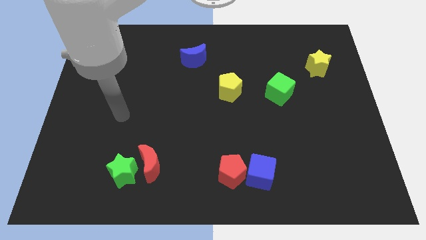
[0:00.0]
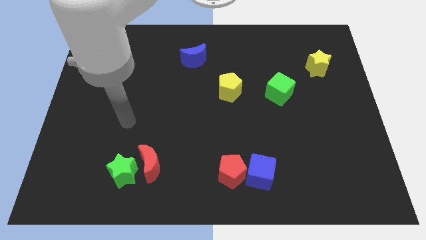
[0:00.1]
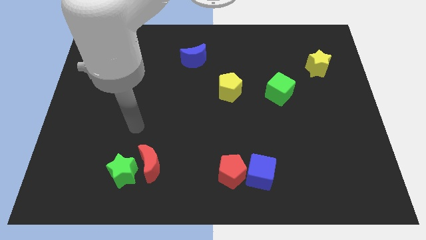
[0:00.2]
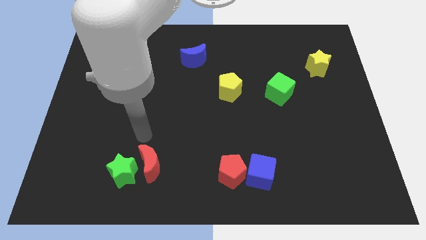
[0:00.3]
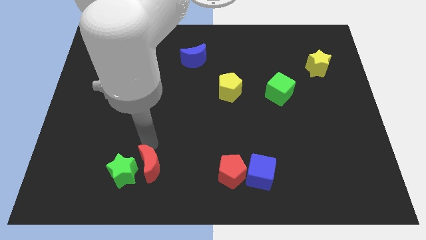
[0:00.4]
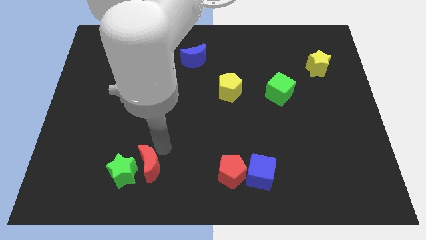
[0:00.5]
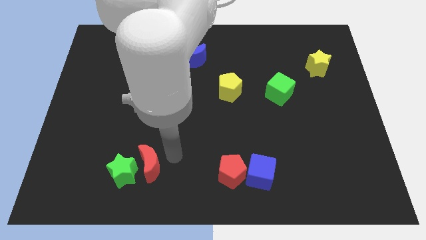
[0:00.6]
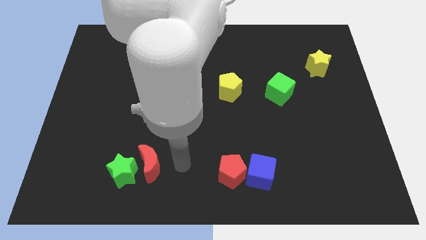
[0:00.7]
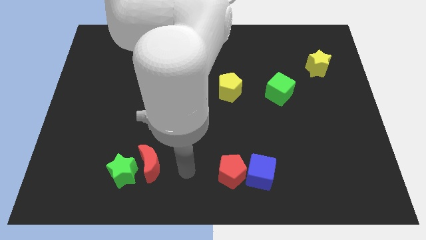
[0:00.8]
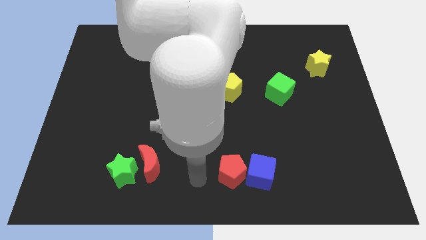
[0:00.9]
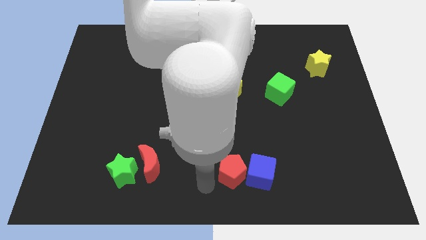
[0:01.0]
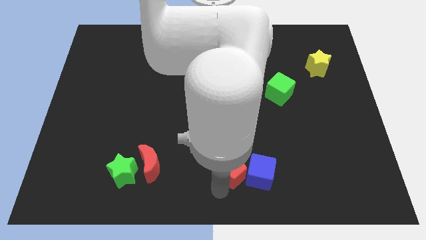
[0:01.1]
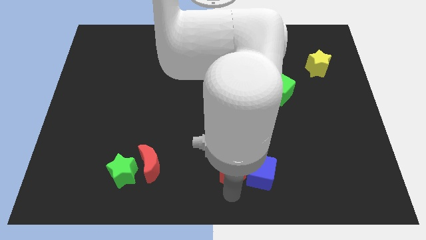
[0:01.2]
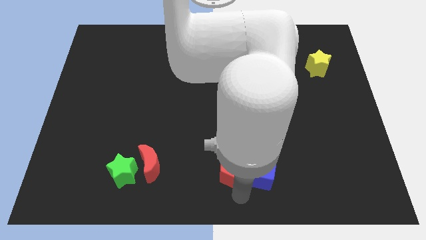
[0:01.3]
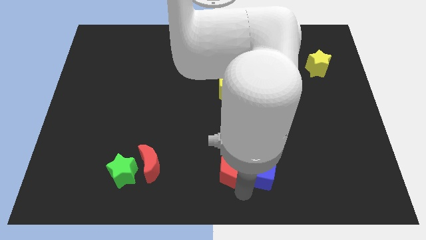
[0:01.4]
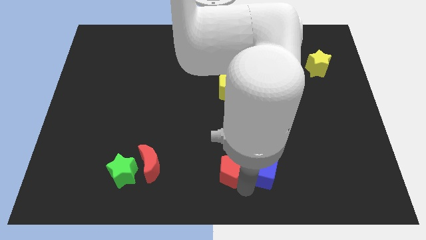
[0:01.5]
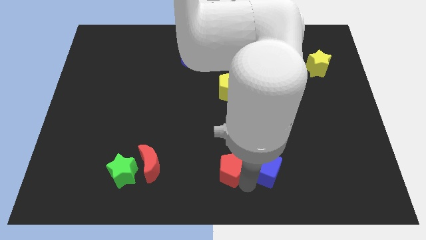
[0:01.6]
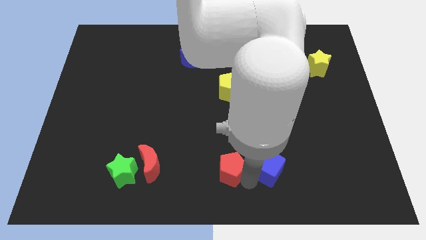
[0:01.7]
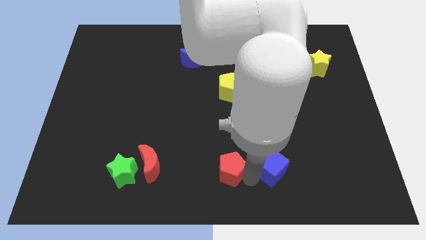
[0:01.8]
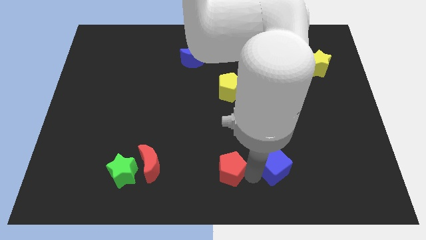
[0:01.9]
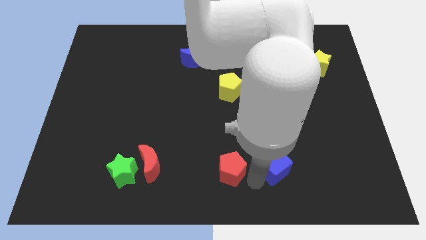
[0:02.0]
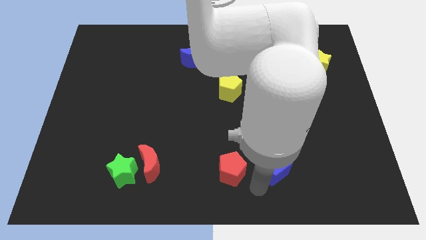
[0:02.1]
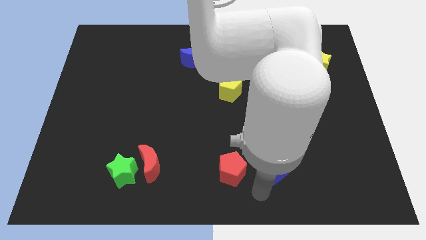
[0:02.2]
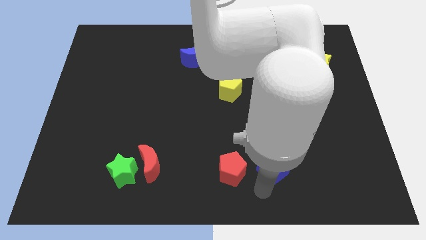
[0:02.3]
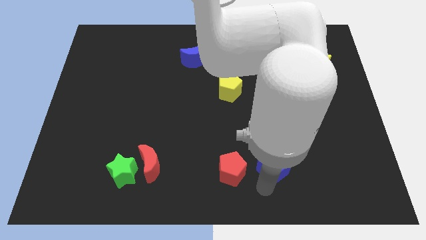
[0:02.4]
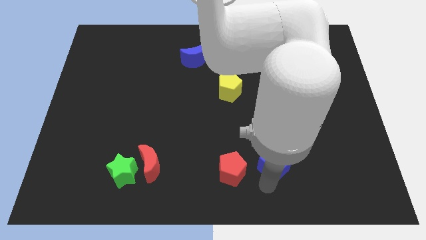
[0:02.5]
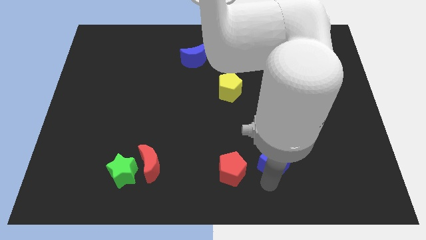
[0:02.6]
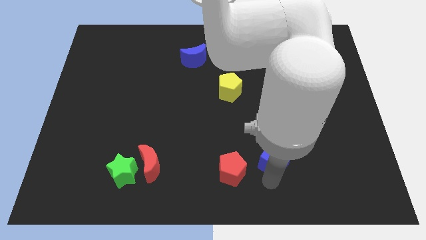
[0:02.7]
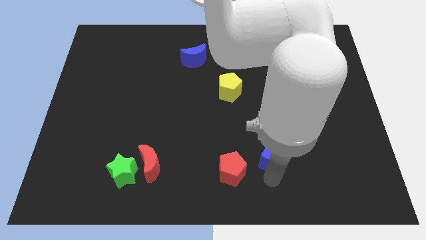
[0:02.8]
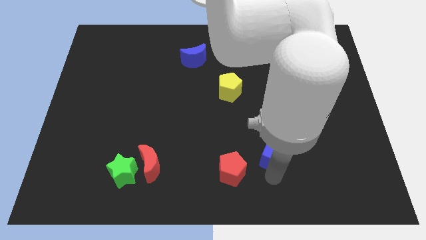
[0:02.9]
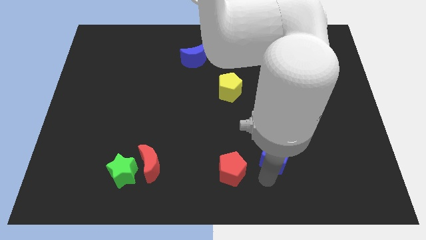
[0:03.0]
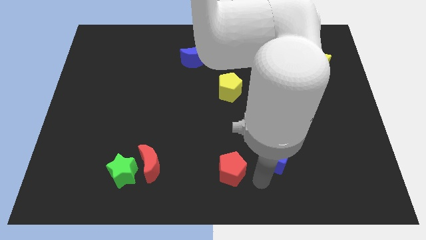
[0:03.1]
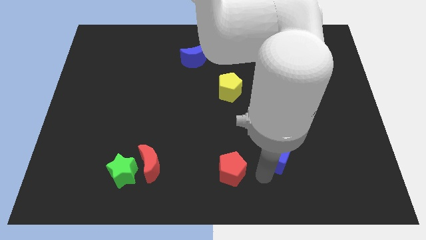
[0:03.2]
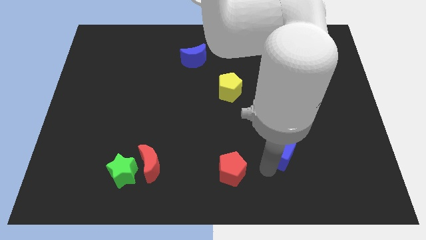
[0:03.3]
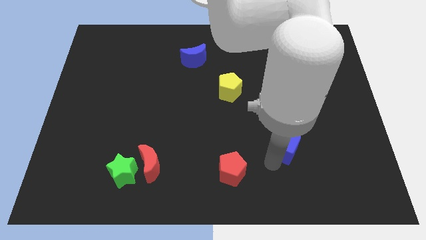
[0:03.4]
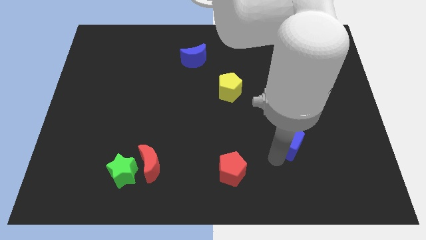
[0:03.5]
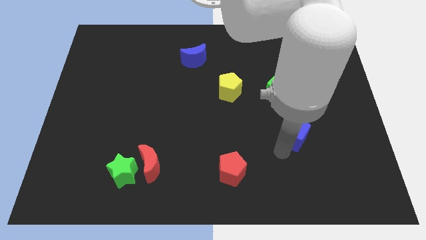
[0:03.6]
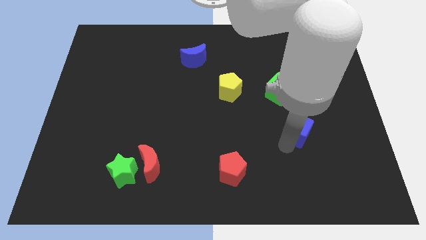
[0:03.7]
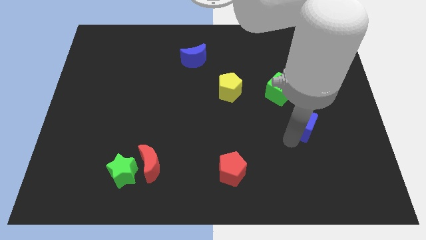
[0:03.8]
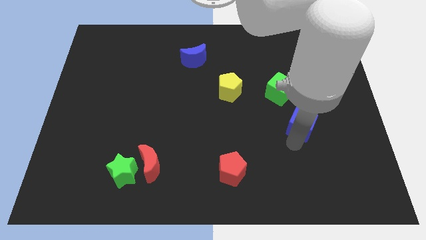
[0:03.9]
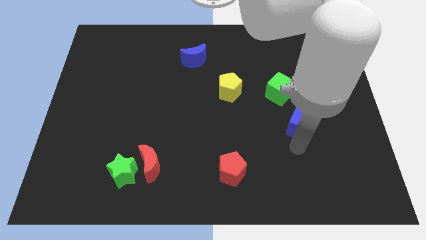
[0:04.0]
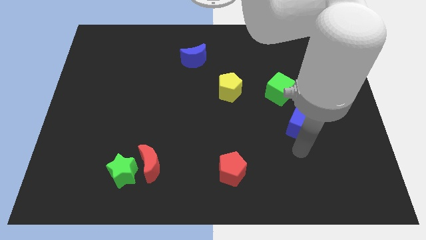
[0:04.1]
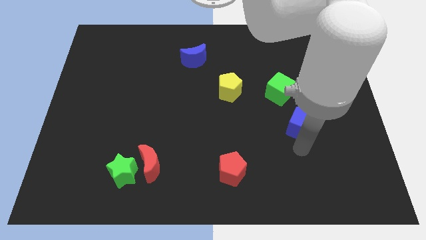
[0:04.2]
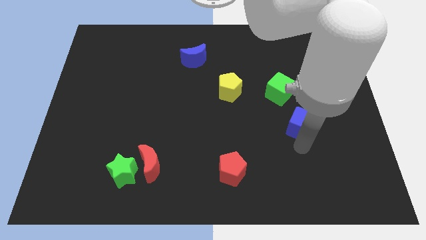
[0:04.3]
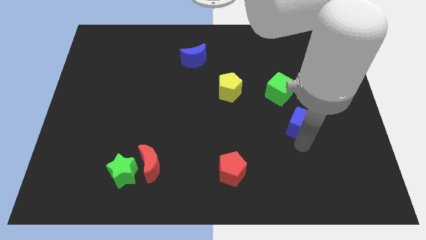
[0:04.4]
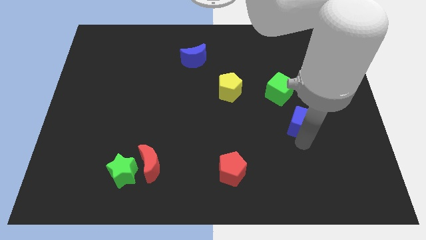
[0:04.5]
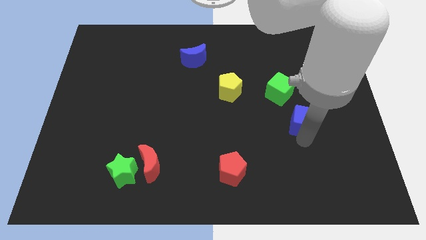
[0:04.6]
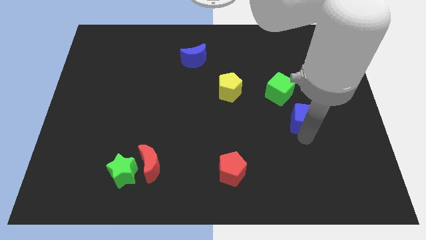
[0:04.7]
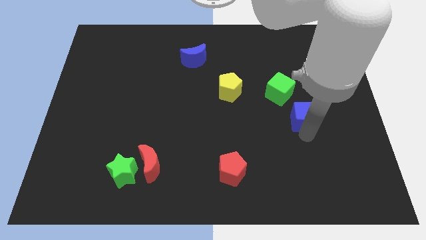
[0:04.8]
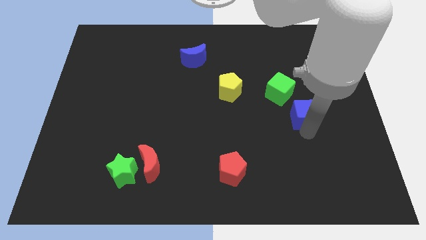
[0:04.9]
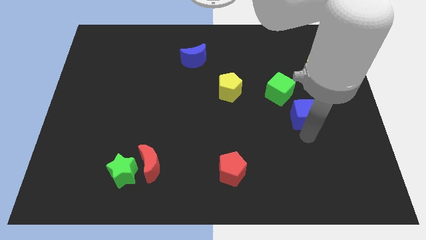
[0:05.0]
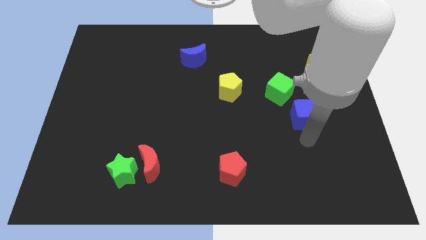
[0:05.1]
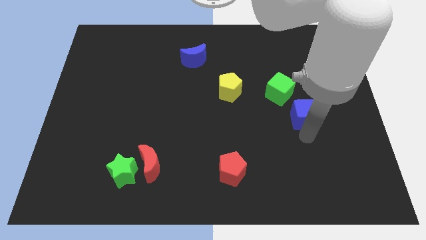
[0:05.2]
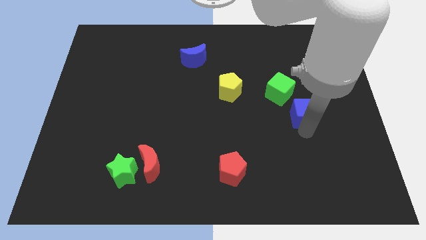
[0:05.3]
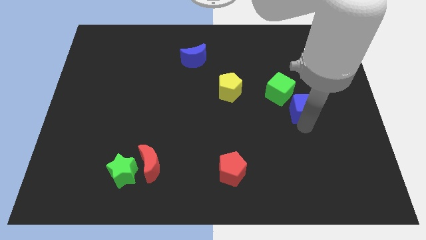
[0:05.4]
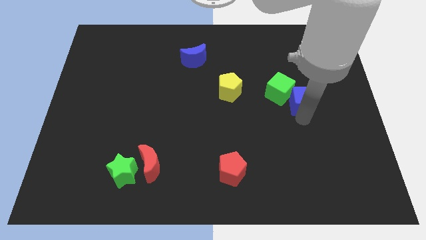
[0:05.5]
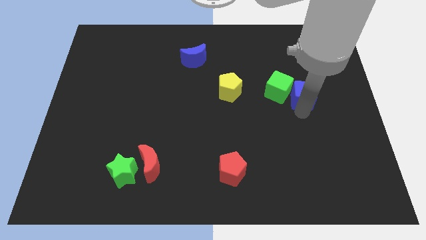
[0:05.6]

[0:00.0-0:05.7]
push the blue cube to the bottom left of the yellow star
